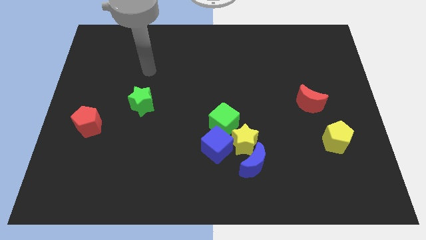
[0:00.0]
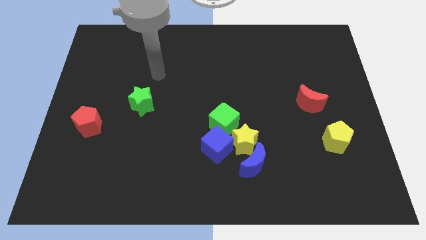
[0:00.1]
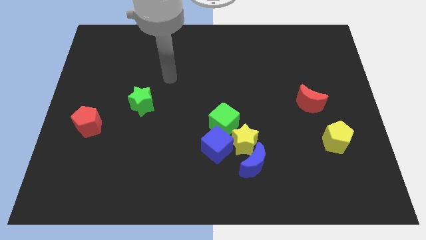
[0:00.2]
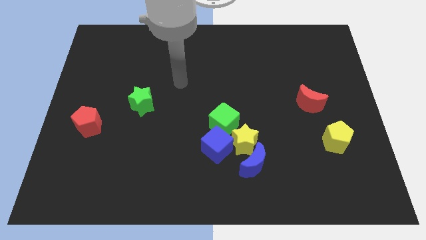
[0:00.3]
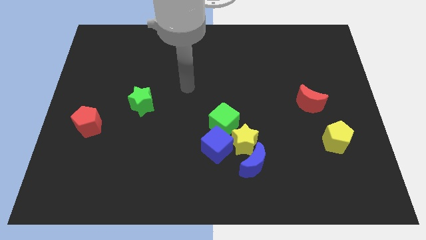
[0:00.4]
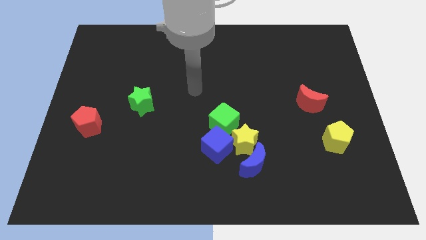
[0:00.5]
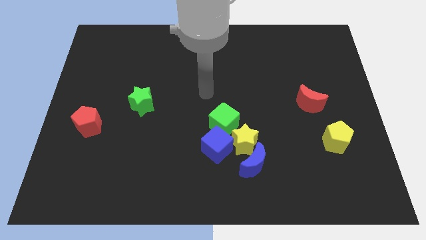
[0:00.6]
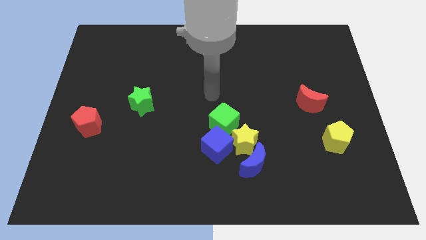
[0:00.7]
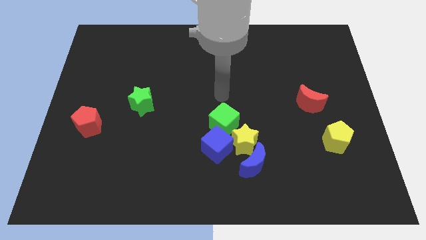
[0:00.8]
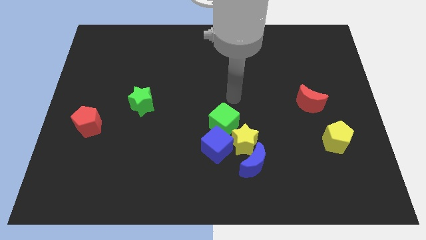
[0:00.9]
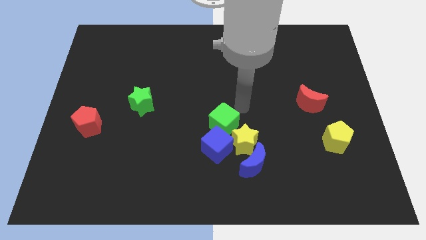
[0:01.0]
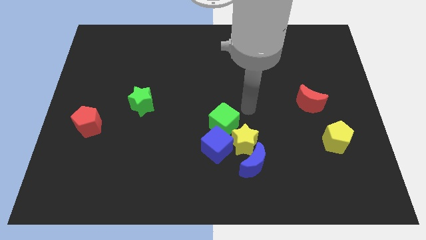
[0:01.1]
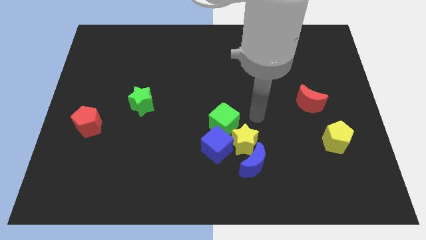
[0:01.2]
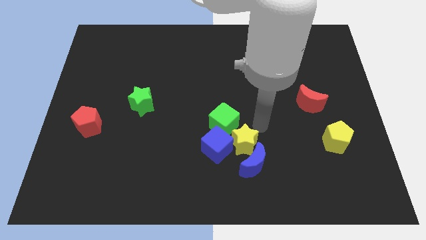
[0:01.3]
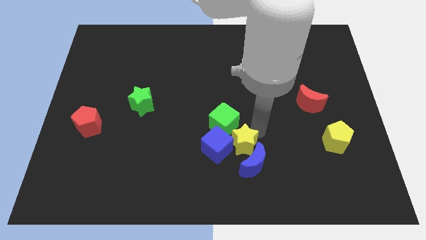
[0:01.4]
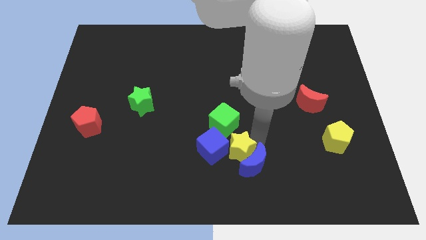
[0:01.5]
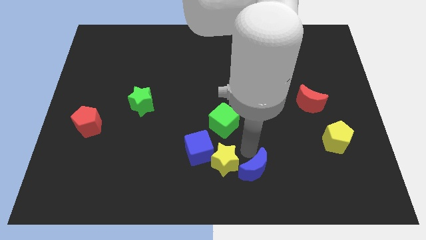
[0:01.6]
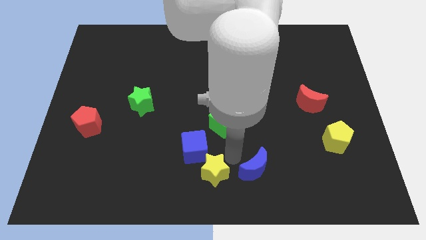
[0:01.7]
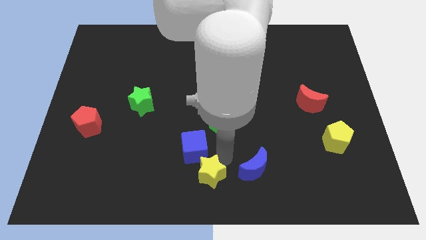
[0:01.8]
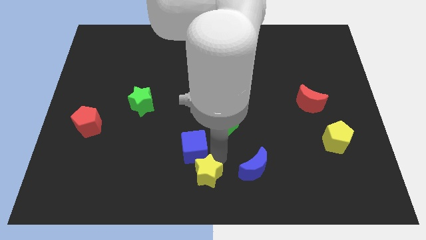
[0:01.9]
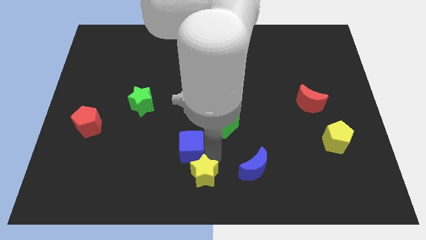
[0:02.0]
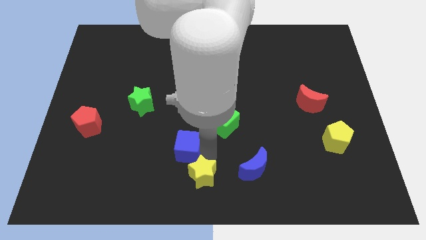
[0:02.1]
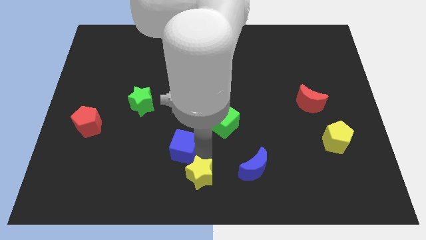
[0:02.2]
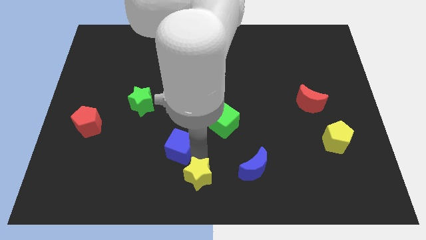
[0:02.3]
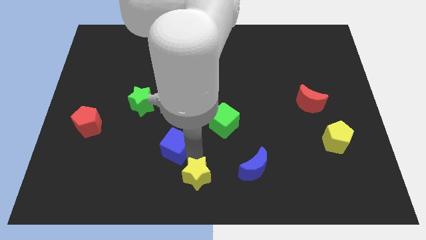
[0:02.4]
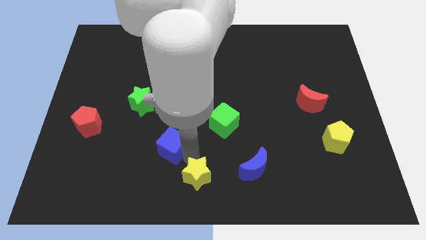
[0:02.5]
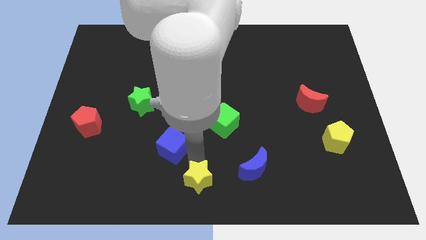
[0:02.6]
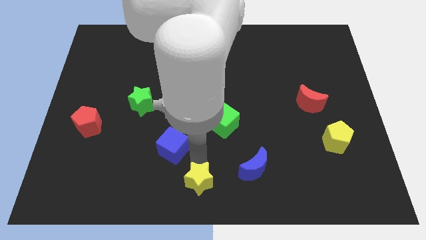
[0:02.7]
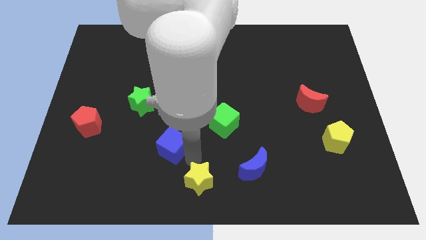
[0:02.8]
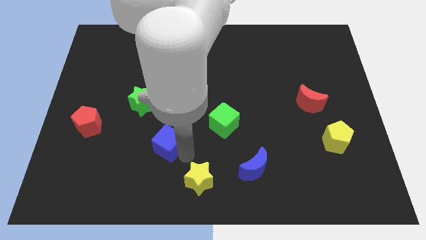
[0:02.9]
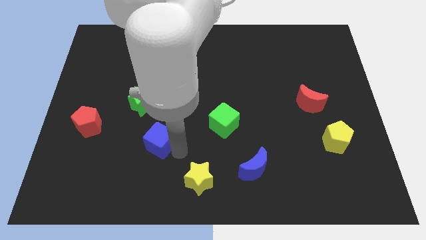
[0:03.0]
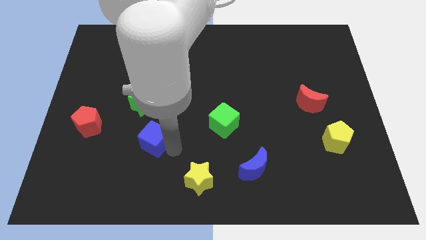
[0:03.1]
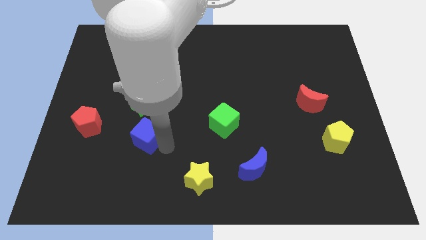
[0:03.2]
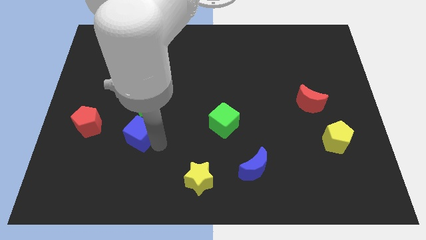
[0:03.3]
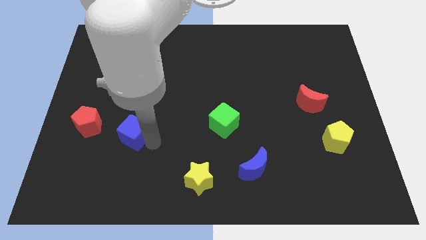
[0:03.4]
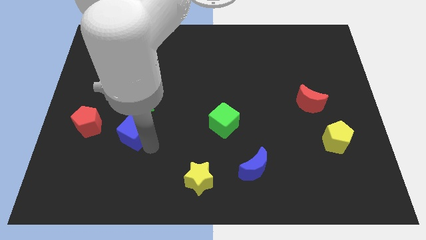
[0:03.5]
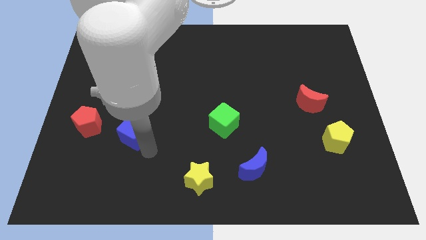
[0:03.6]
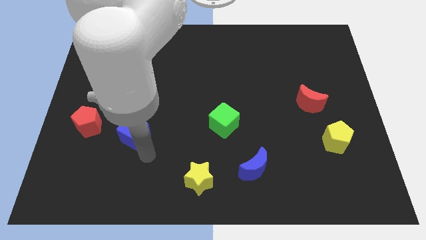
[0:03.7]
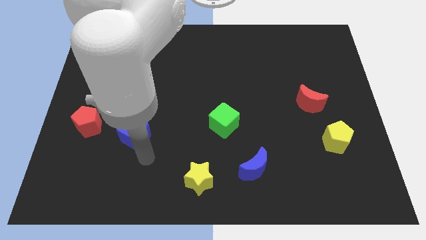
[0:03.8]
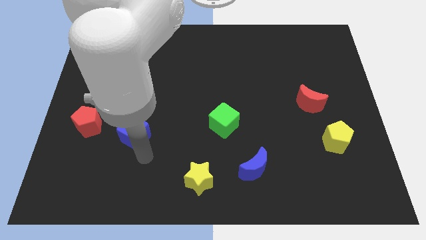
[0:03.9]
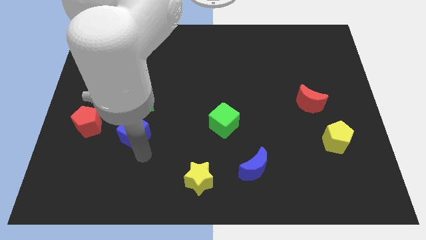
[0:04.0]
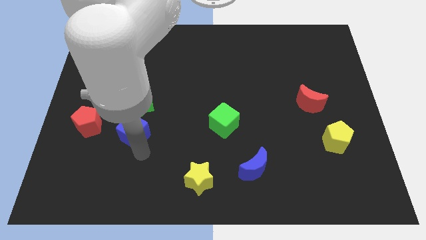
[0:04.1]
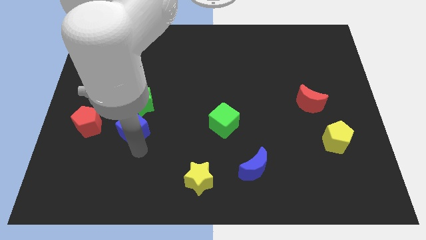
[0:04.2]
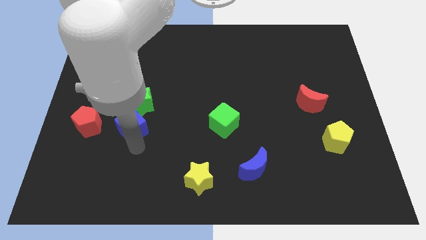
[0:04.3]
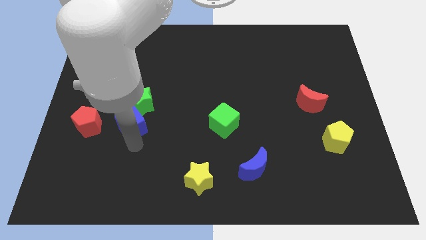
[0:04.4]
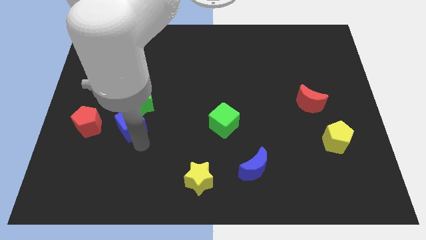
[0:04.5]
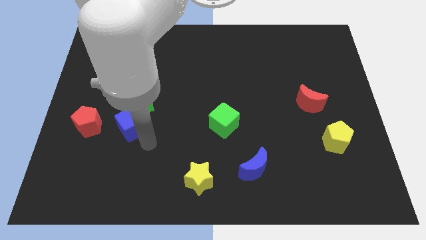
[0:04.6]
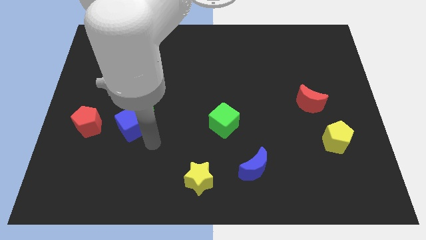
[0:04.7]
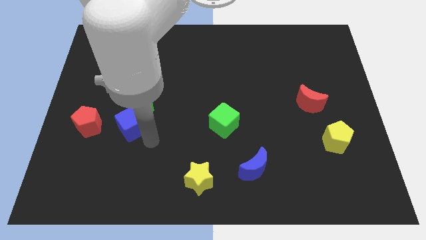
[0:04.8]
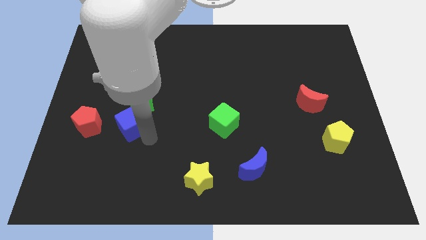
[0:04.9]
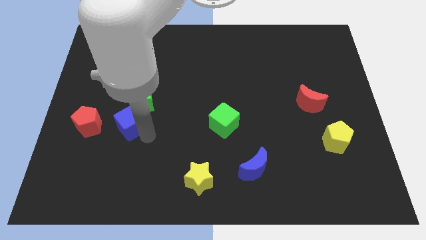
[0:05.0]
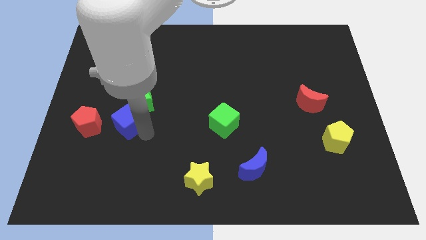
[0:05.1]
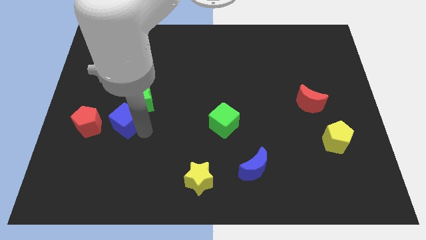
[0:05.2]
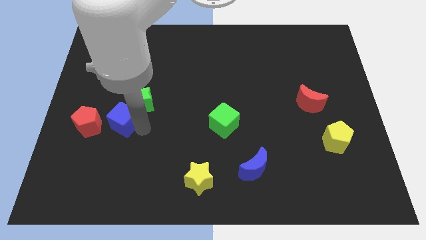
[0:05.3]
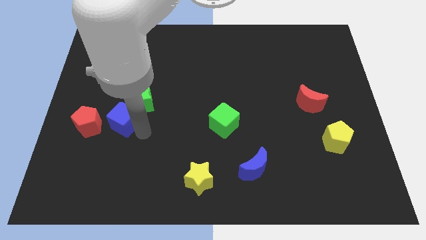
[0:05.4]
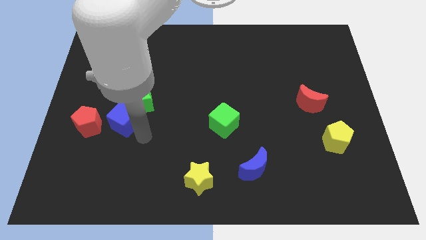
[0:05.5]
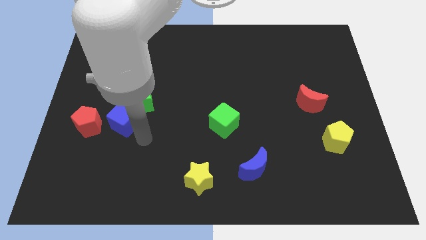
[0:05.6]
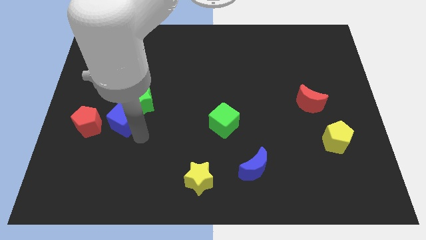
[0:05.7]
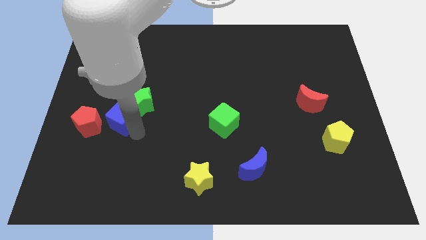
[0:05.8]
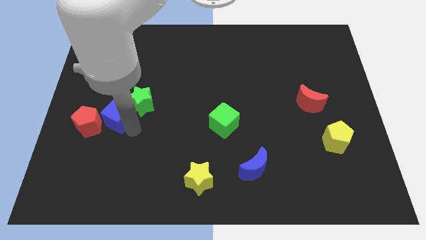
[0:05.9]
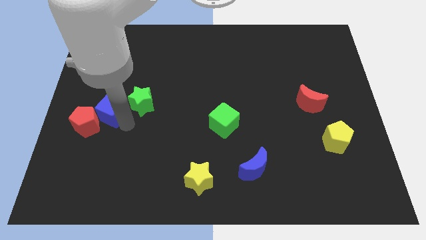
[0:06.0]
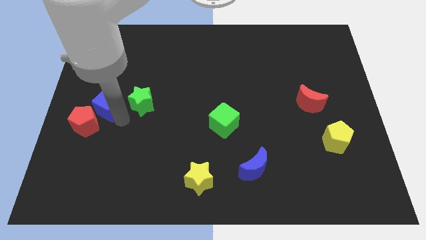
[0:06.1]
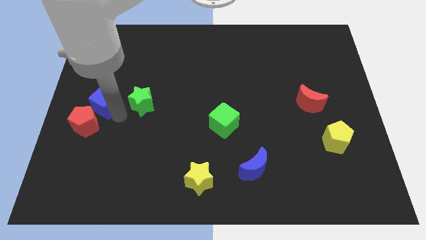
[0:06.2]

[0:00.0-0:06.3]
slide the blue cube to the left side

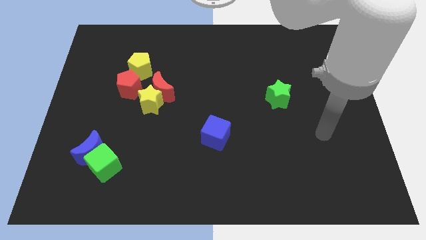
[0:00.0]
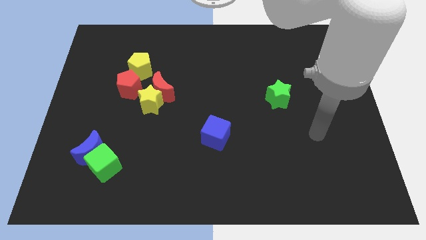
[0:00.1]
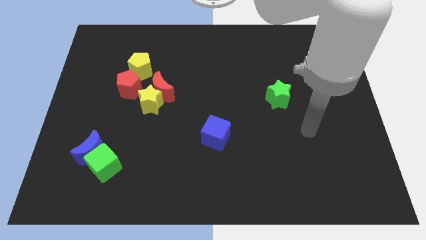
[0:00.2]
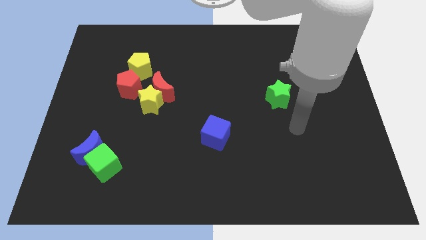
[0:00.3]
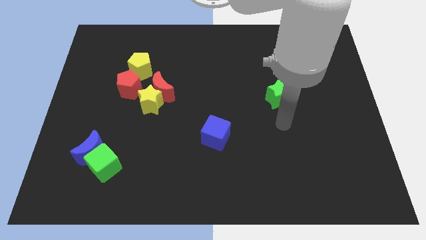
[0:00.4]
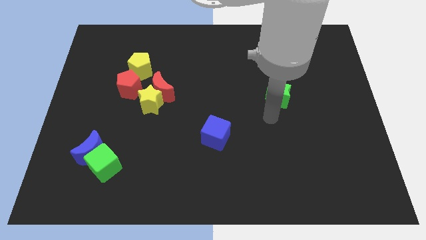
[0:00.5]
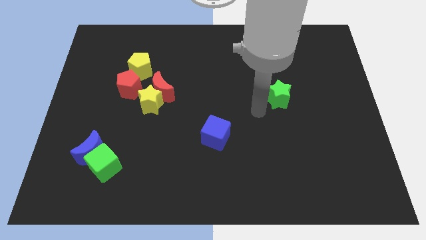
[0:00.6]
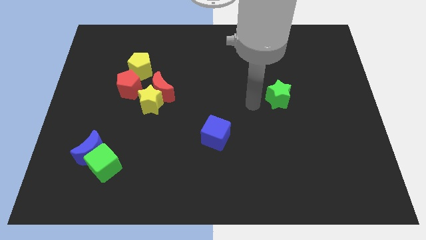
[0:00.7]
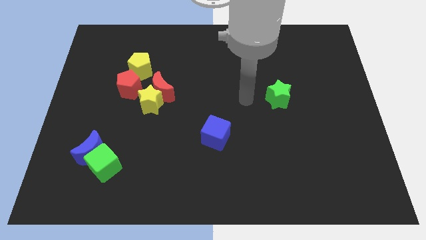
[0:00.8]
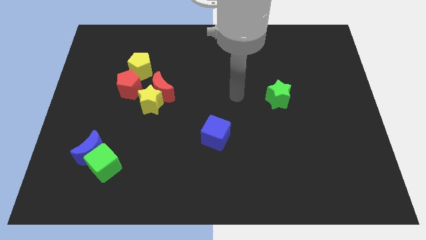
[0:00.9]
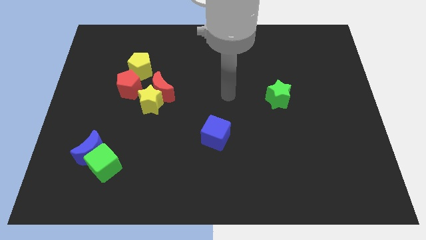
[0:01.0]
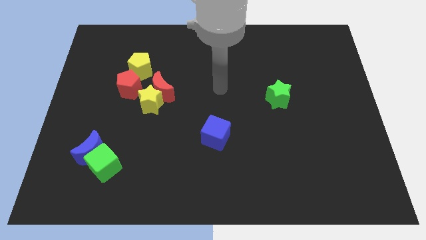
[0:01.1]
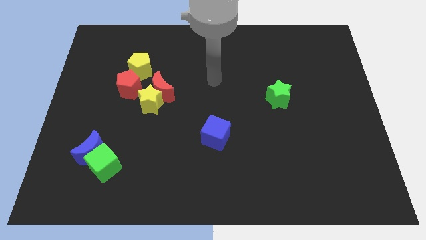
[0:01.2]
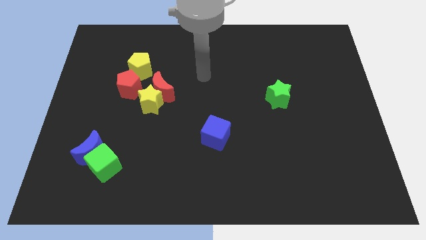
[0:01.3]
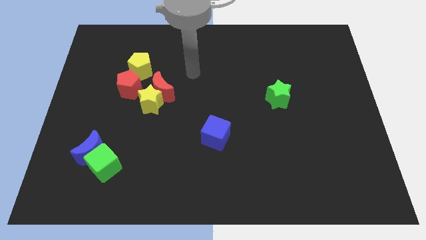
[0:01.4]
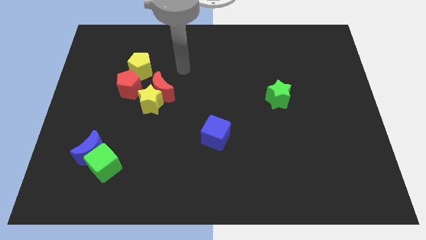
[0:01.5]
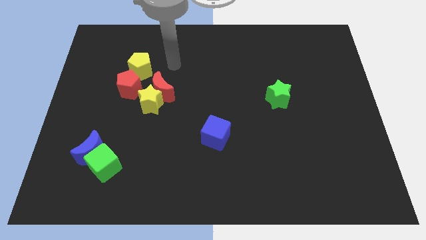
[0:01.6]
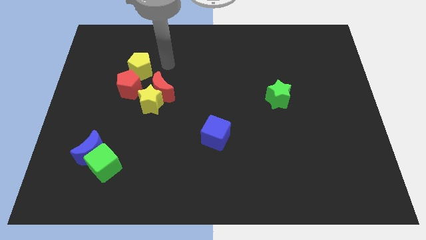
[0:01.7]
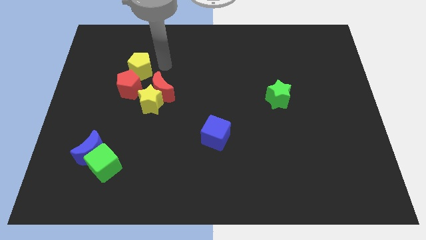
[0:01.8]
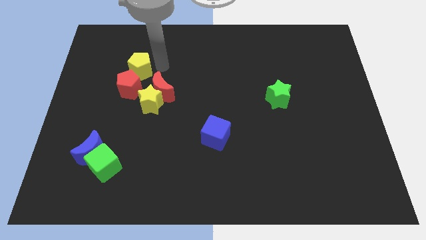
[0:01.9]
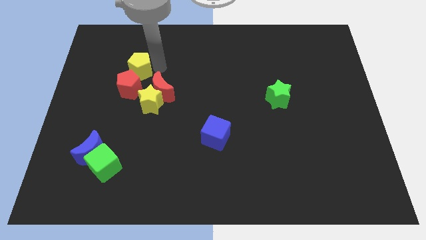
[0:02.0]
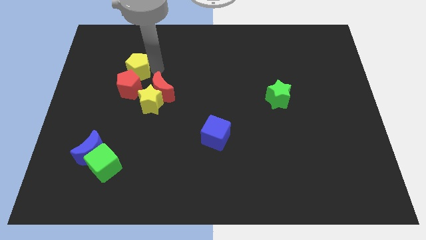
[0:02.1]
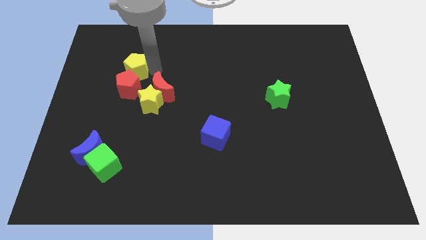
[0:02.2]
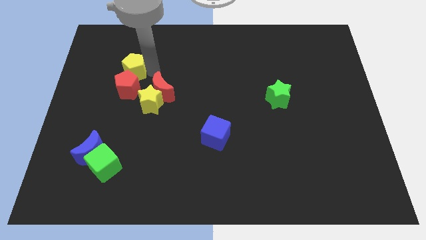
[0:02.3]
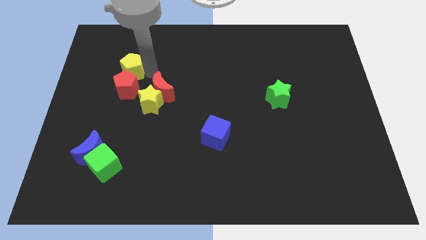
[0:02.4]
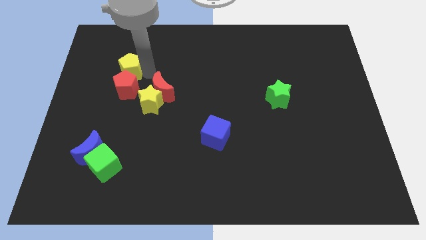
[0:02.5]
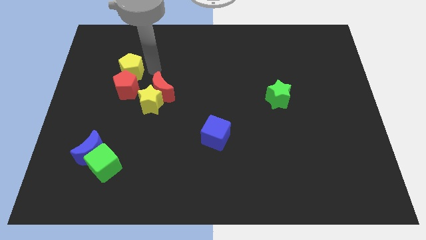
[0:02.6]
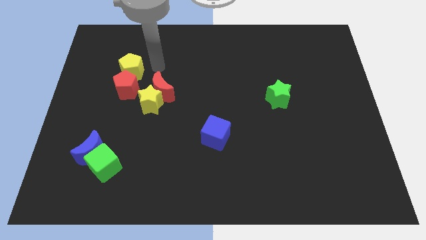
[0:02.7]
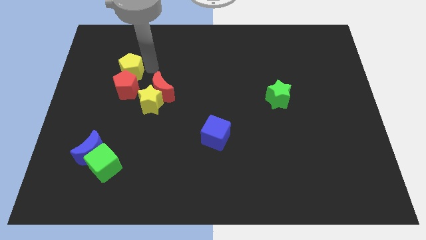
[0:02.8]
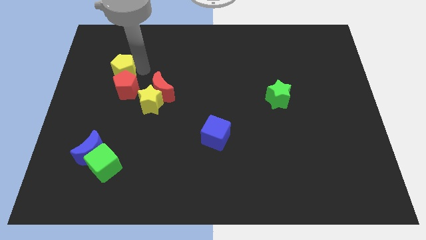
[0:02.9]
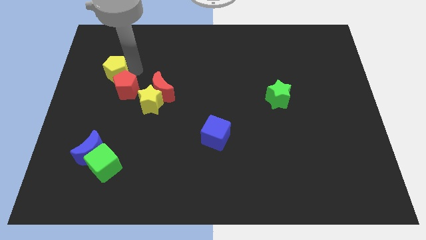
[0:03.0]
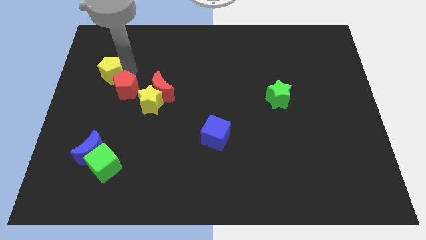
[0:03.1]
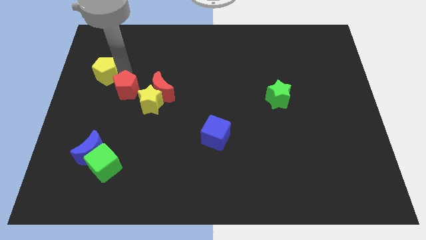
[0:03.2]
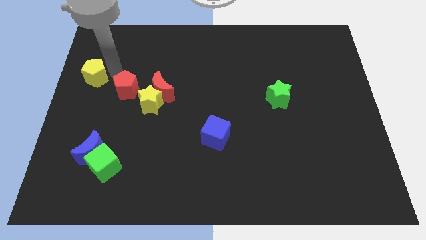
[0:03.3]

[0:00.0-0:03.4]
slide the yellow pentagon to the left side of the board
